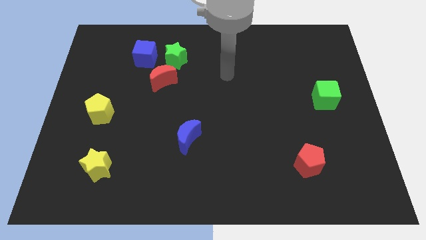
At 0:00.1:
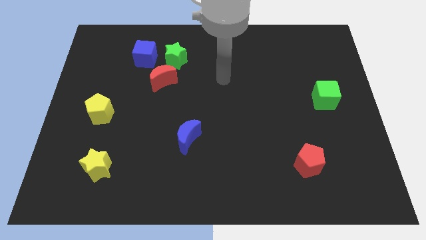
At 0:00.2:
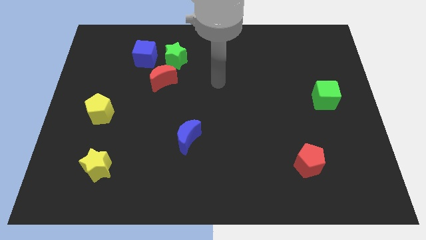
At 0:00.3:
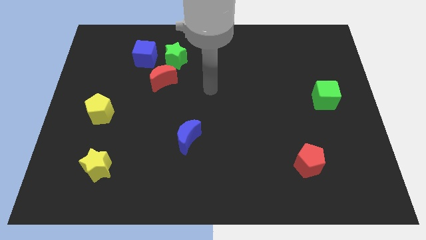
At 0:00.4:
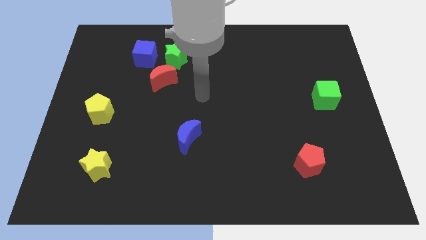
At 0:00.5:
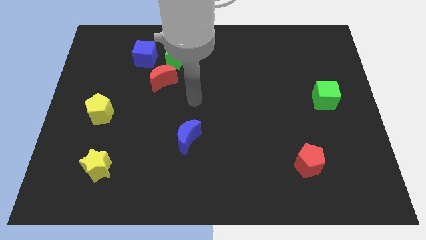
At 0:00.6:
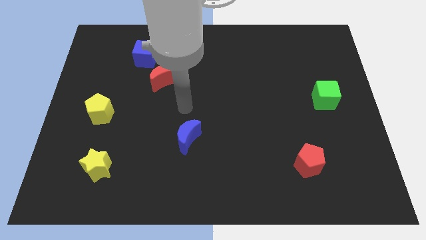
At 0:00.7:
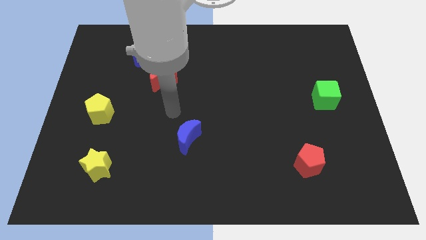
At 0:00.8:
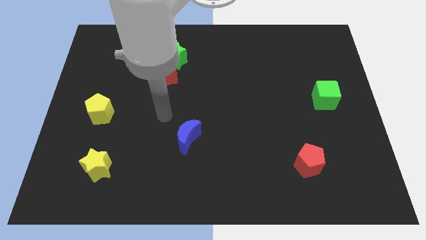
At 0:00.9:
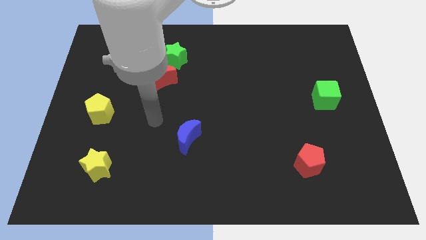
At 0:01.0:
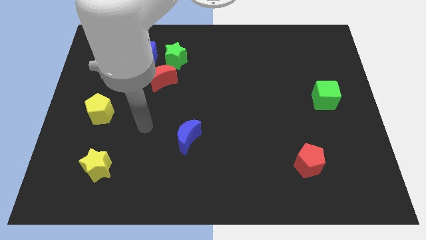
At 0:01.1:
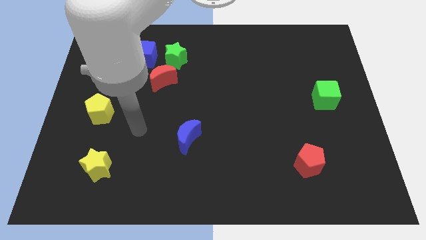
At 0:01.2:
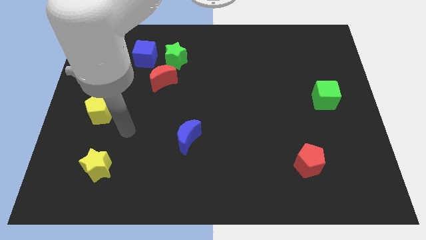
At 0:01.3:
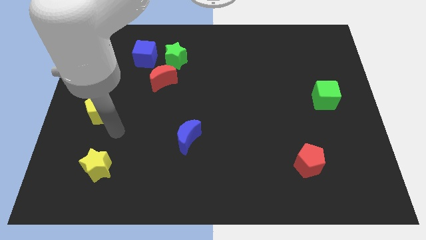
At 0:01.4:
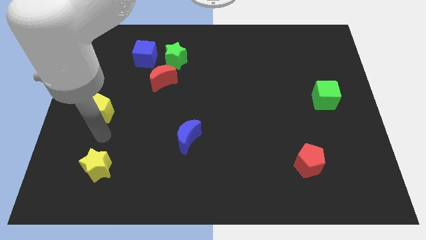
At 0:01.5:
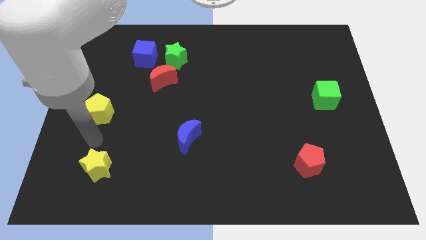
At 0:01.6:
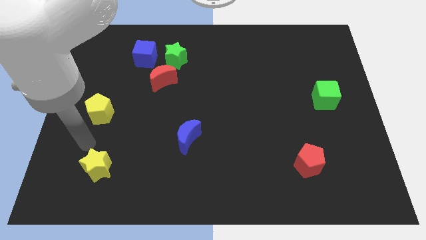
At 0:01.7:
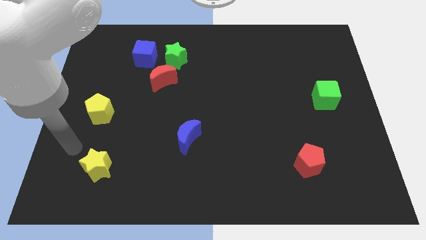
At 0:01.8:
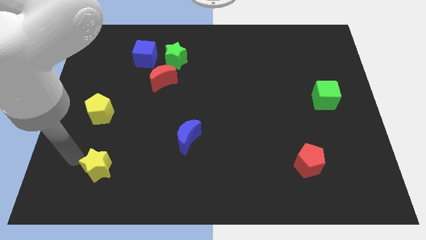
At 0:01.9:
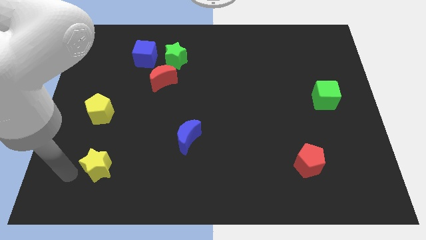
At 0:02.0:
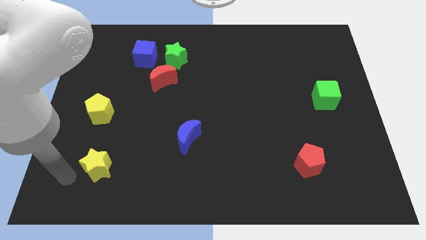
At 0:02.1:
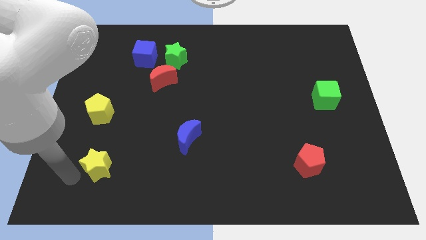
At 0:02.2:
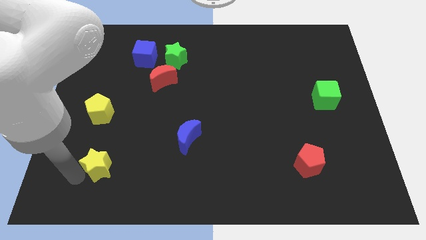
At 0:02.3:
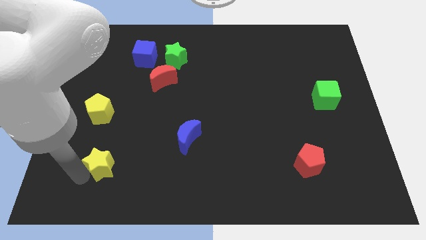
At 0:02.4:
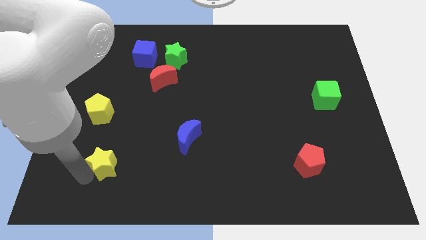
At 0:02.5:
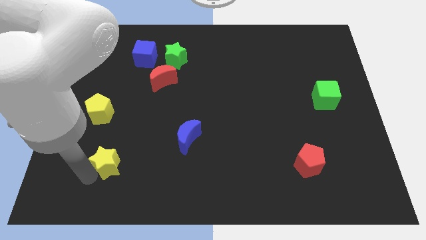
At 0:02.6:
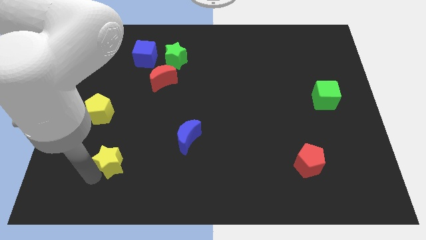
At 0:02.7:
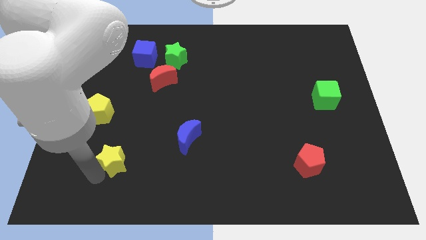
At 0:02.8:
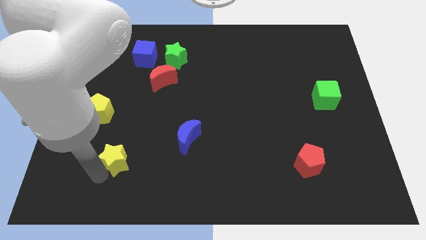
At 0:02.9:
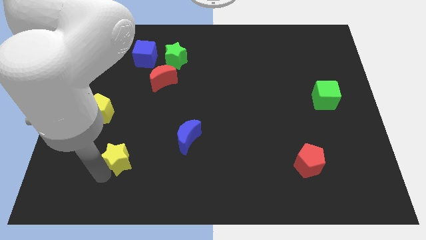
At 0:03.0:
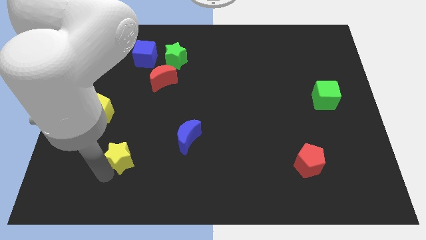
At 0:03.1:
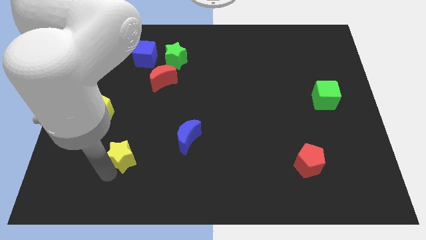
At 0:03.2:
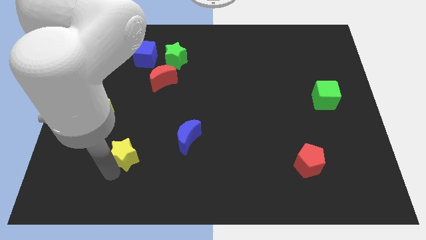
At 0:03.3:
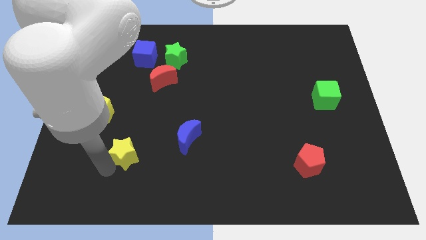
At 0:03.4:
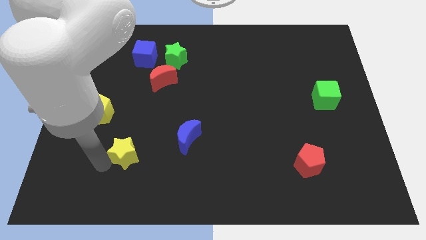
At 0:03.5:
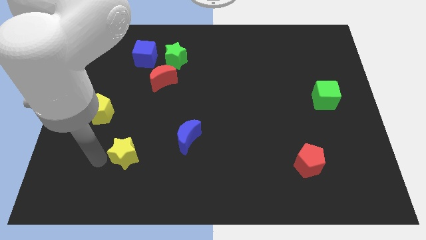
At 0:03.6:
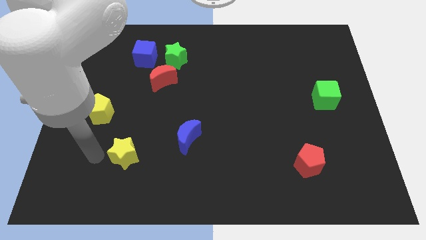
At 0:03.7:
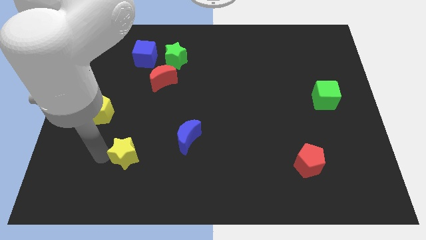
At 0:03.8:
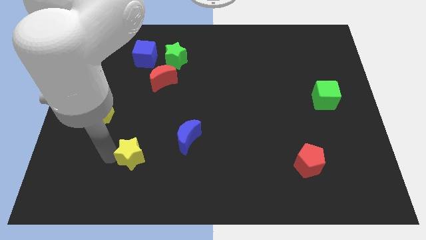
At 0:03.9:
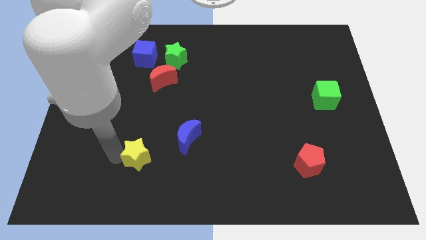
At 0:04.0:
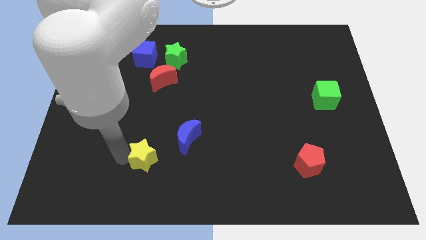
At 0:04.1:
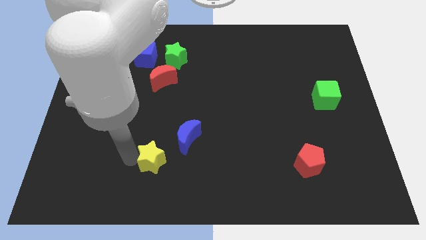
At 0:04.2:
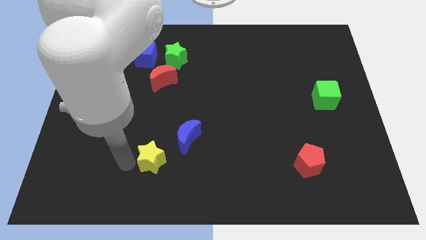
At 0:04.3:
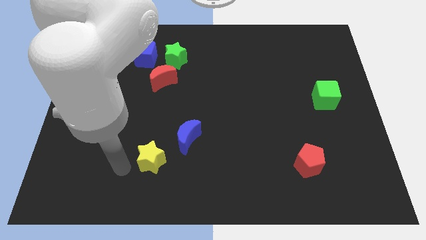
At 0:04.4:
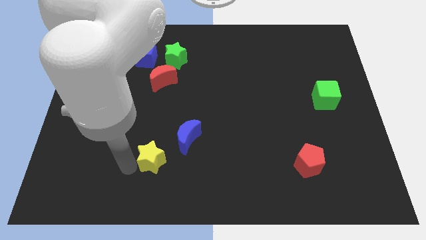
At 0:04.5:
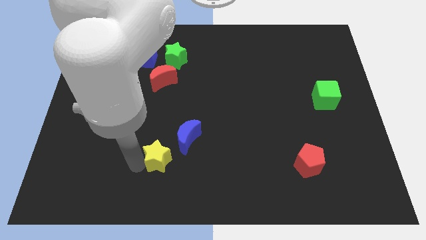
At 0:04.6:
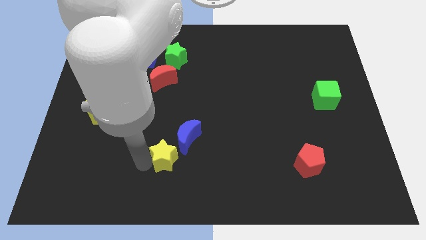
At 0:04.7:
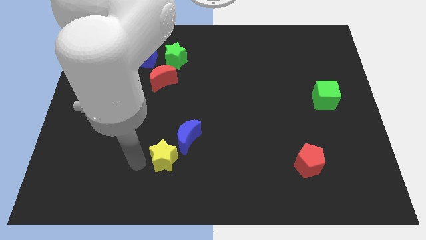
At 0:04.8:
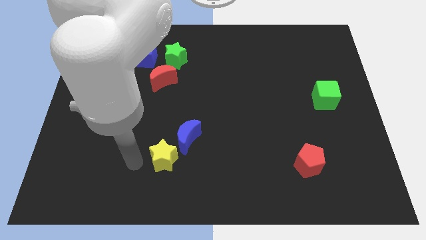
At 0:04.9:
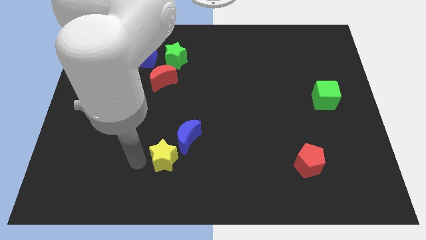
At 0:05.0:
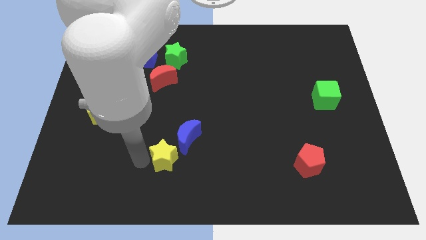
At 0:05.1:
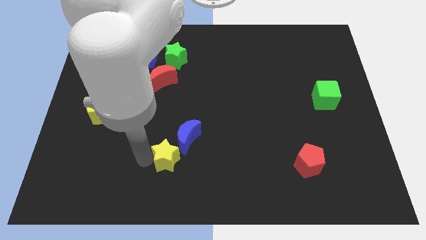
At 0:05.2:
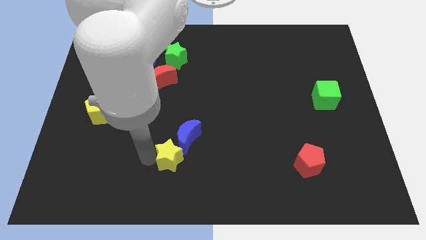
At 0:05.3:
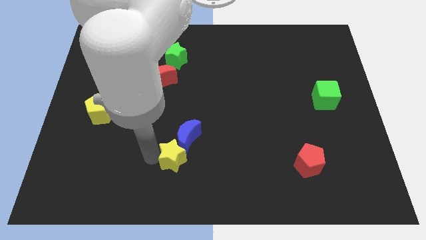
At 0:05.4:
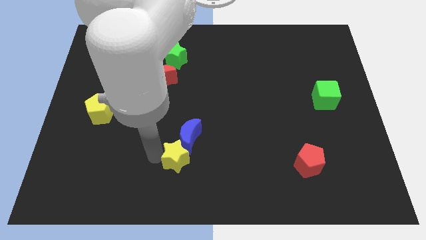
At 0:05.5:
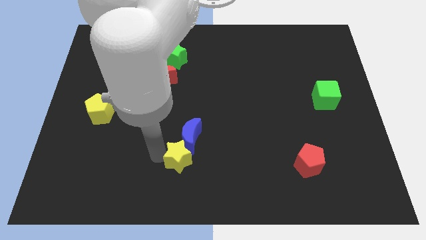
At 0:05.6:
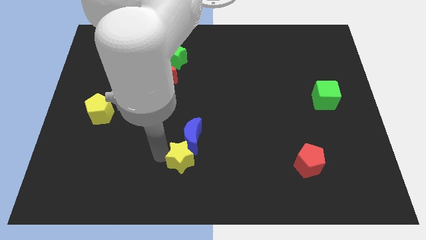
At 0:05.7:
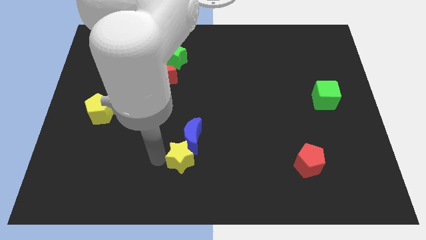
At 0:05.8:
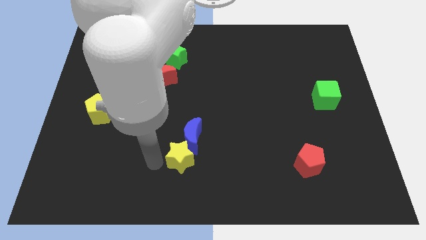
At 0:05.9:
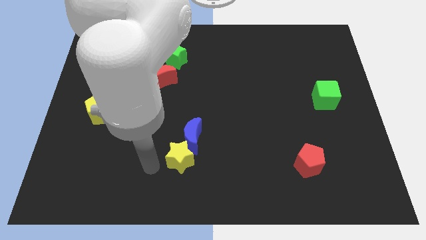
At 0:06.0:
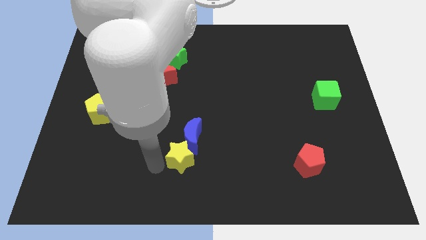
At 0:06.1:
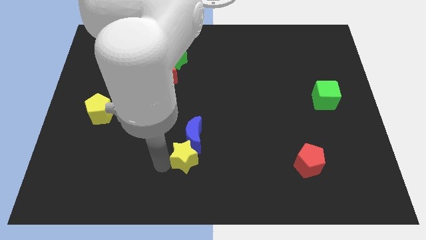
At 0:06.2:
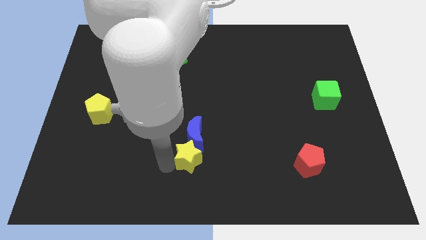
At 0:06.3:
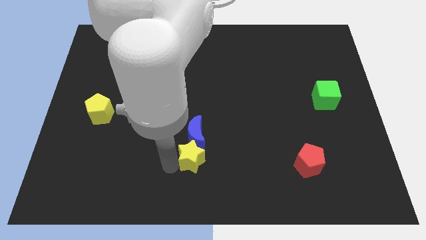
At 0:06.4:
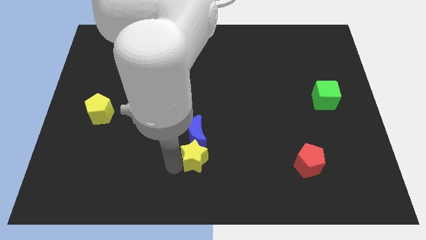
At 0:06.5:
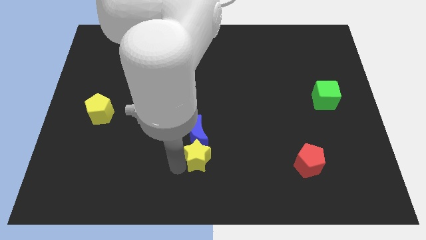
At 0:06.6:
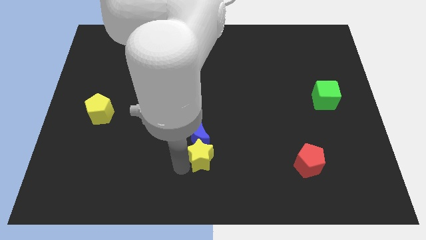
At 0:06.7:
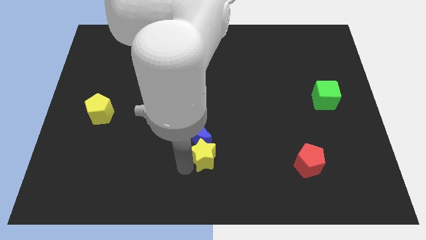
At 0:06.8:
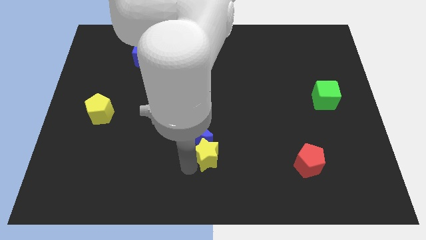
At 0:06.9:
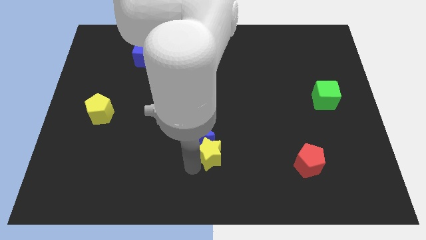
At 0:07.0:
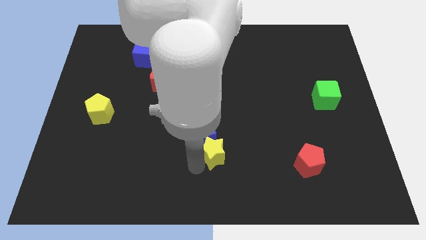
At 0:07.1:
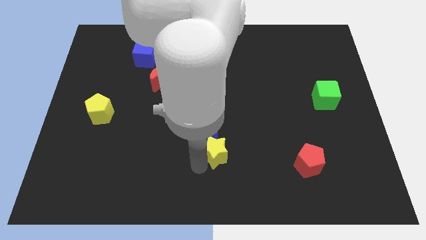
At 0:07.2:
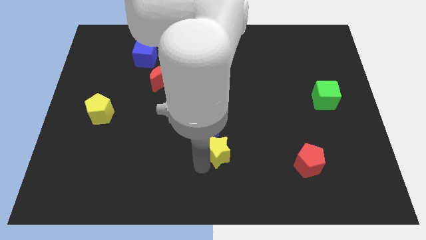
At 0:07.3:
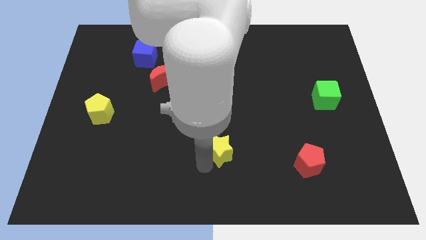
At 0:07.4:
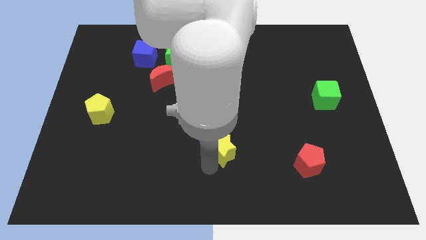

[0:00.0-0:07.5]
push the yellow star just right of the blue moon

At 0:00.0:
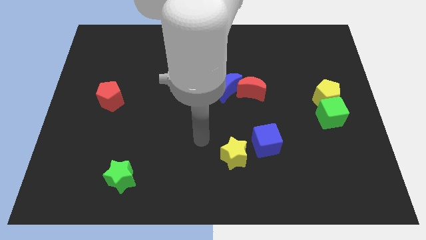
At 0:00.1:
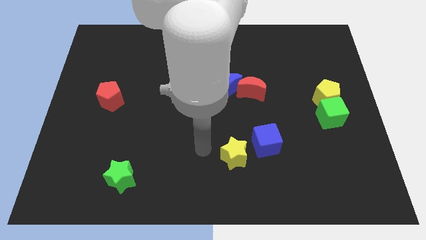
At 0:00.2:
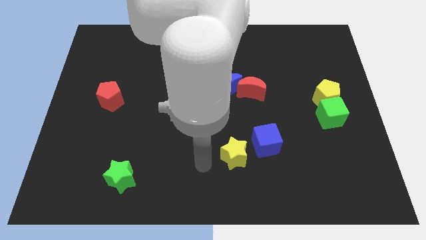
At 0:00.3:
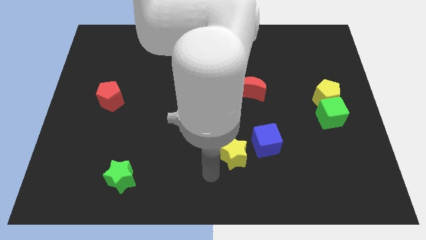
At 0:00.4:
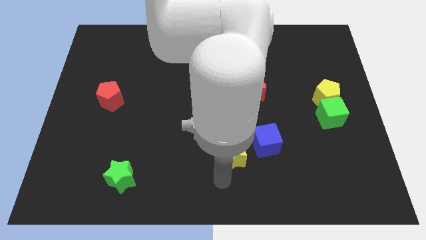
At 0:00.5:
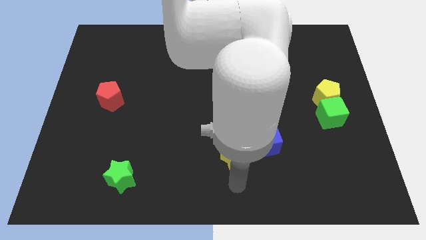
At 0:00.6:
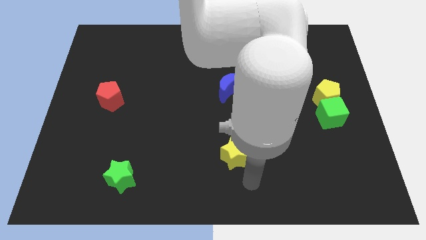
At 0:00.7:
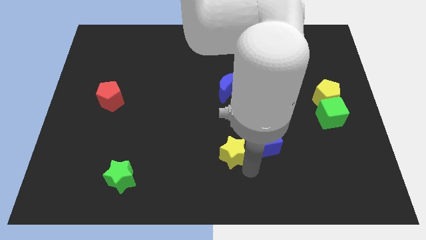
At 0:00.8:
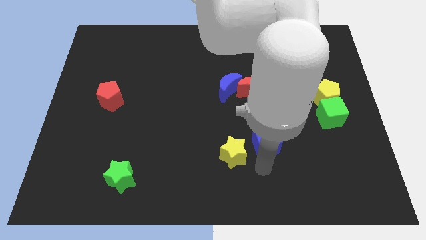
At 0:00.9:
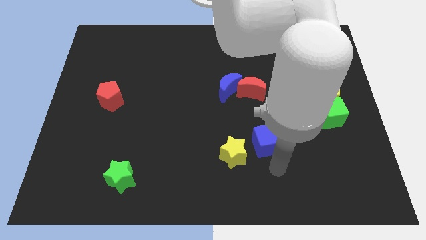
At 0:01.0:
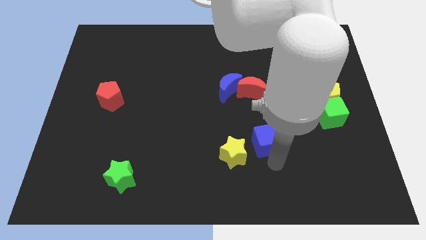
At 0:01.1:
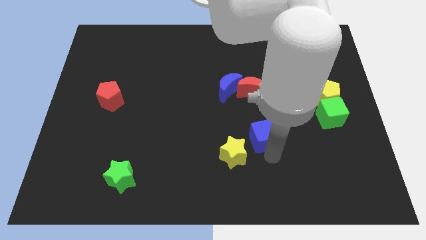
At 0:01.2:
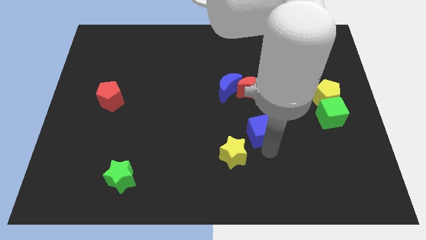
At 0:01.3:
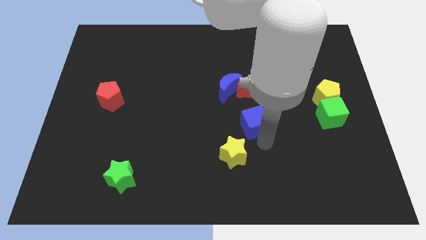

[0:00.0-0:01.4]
push the blue cube diagonally down and to the right of the blue moon
